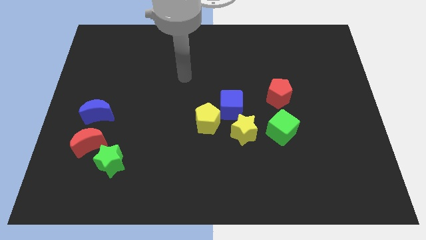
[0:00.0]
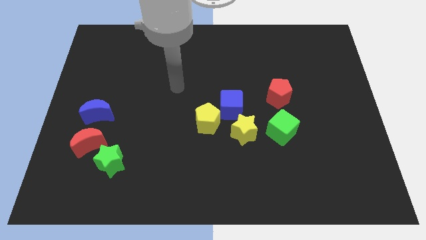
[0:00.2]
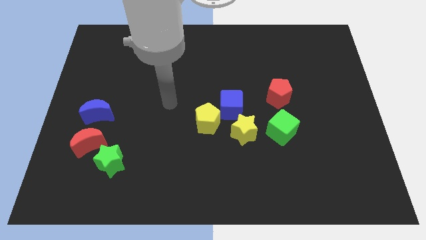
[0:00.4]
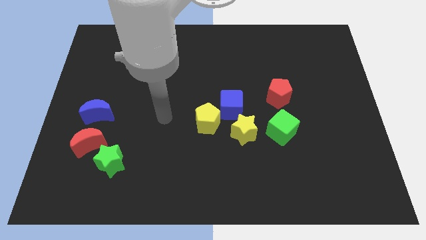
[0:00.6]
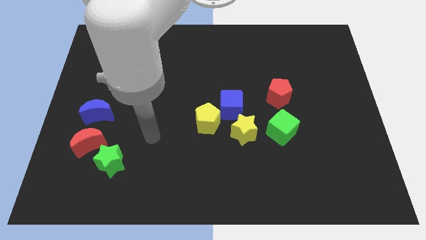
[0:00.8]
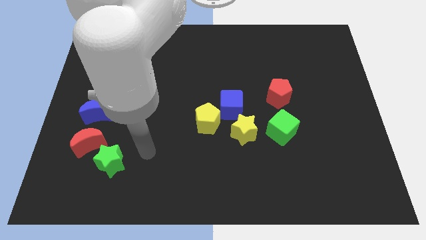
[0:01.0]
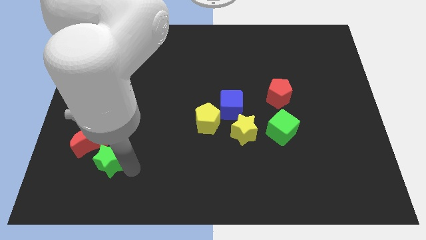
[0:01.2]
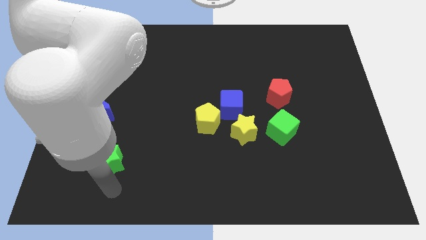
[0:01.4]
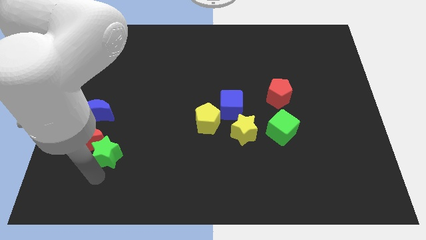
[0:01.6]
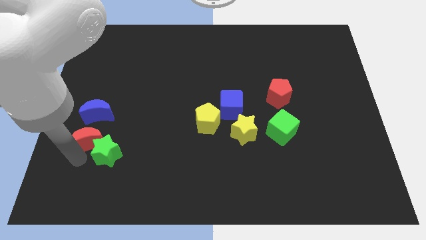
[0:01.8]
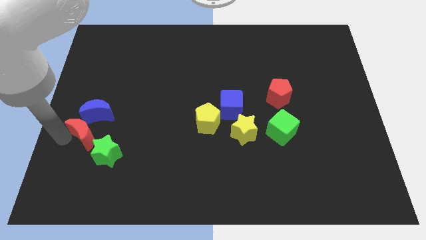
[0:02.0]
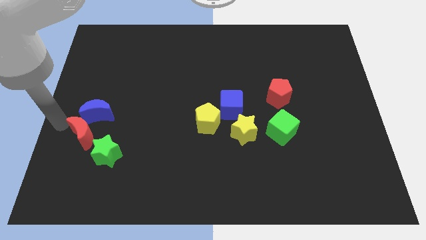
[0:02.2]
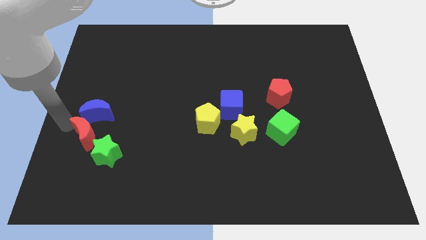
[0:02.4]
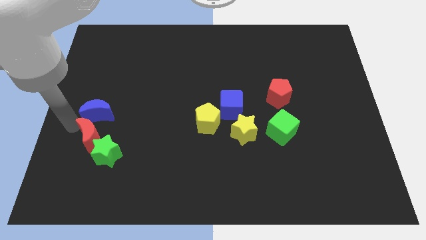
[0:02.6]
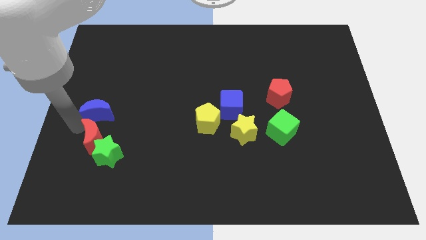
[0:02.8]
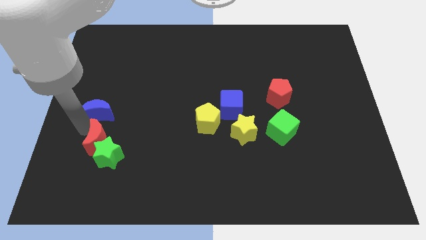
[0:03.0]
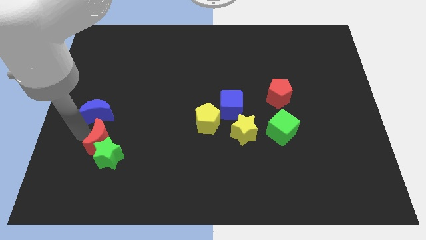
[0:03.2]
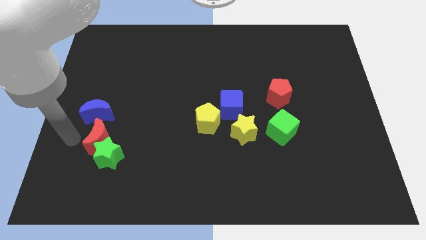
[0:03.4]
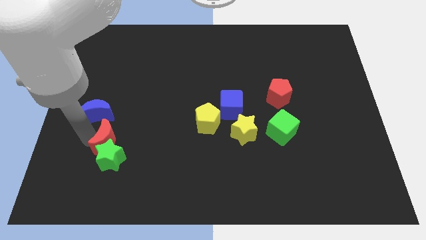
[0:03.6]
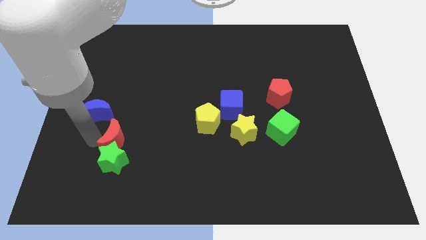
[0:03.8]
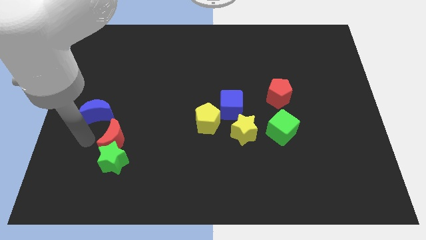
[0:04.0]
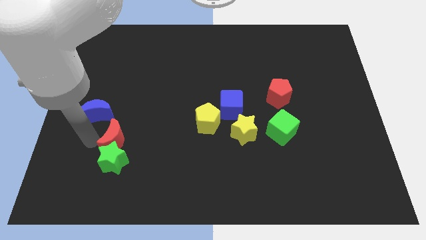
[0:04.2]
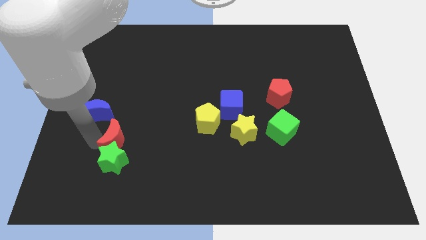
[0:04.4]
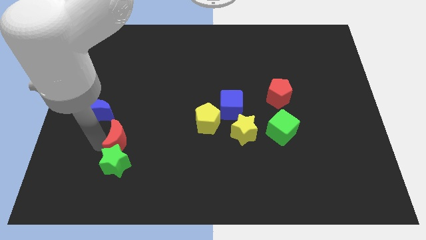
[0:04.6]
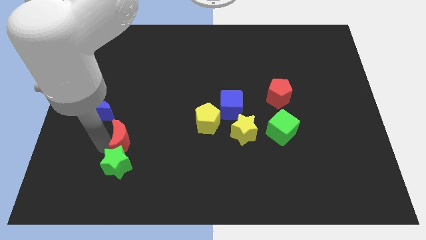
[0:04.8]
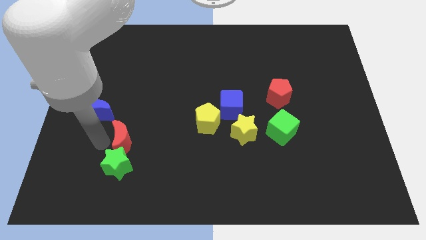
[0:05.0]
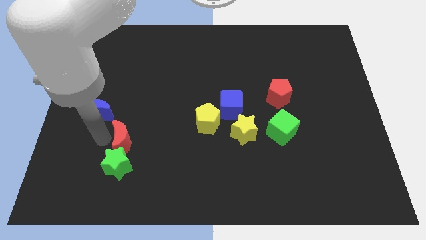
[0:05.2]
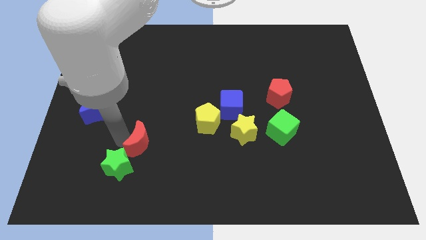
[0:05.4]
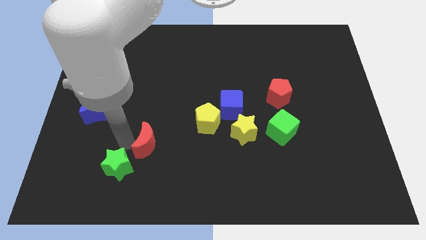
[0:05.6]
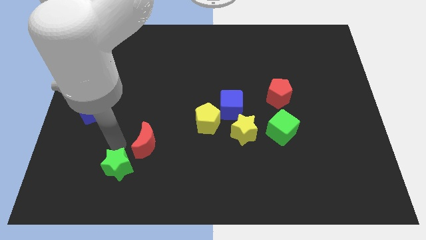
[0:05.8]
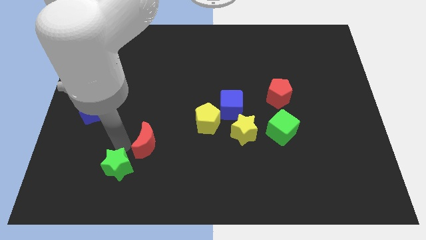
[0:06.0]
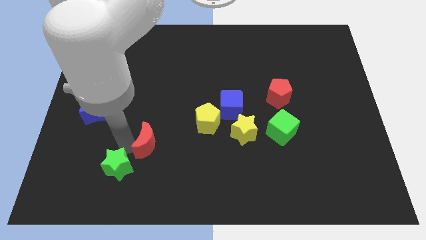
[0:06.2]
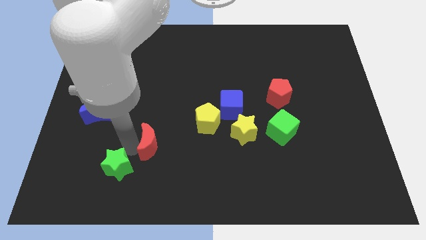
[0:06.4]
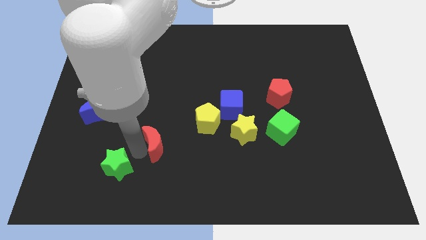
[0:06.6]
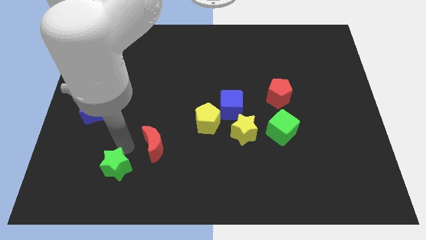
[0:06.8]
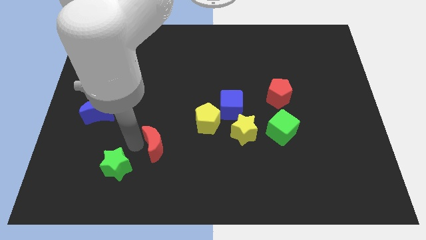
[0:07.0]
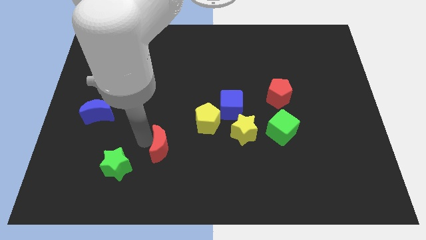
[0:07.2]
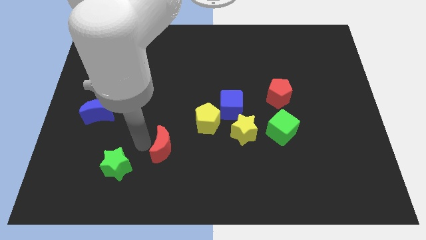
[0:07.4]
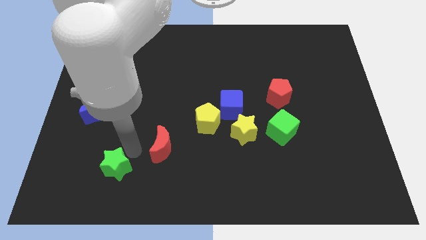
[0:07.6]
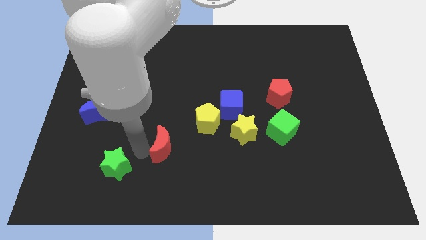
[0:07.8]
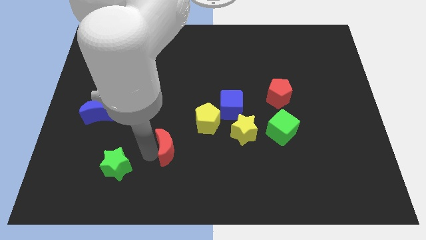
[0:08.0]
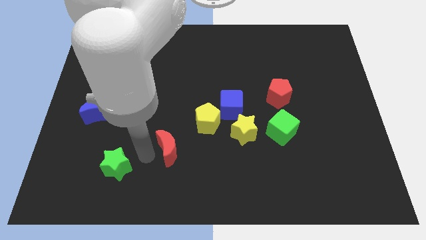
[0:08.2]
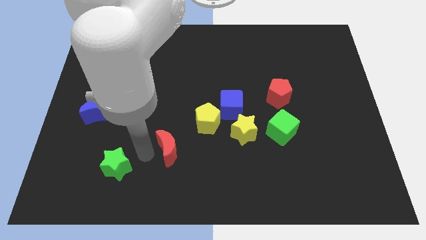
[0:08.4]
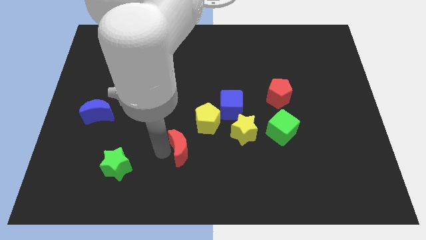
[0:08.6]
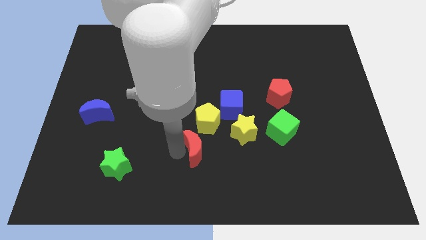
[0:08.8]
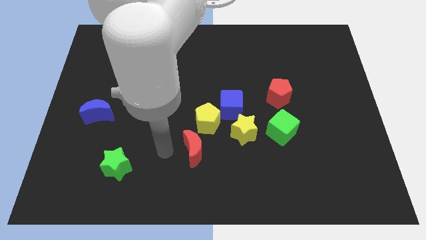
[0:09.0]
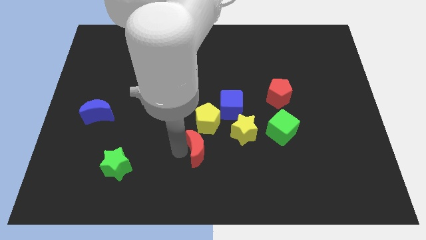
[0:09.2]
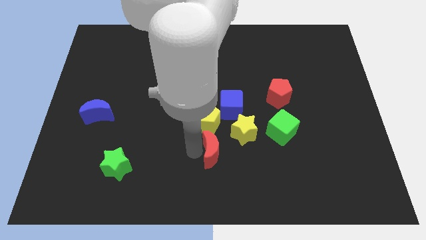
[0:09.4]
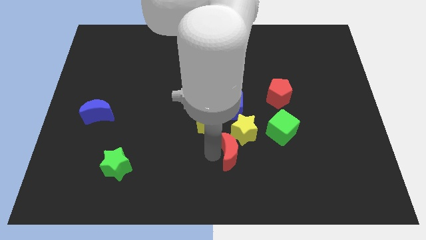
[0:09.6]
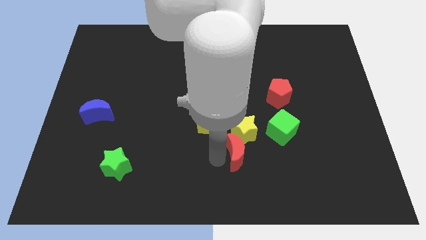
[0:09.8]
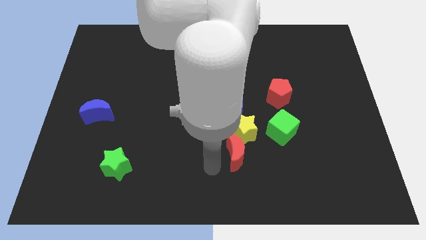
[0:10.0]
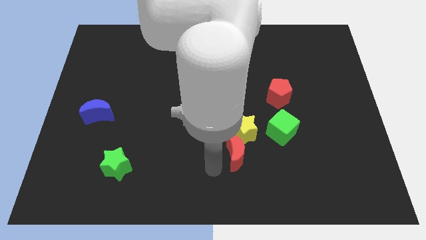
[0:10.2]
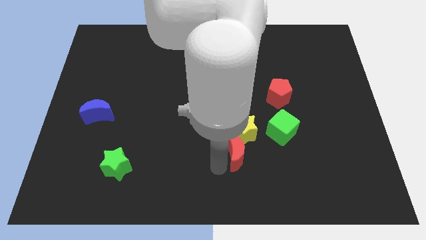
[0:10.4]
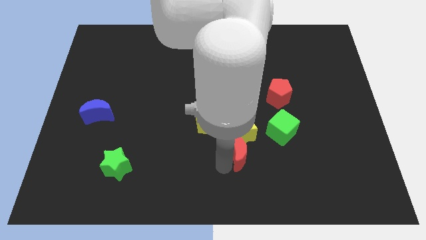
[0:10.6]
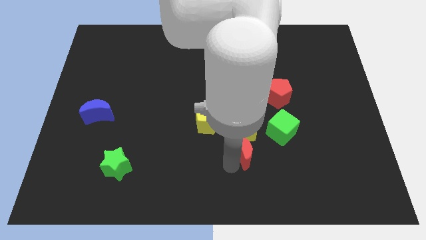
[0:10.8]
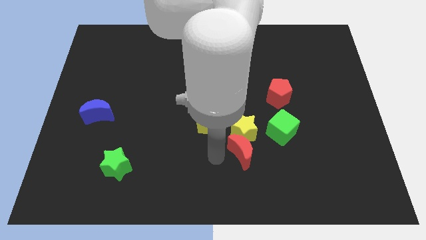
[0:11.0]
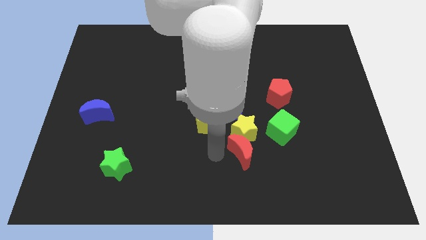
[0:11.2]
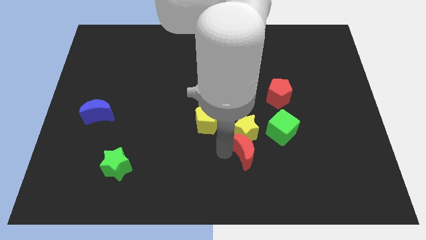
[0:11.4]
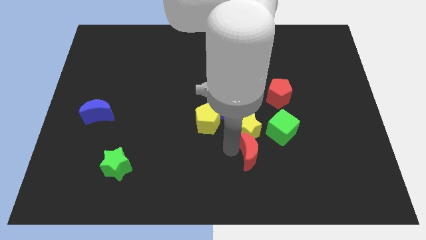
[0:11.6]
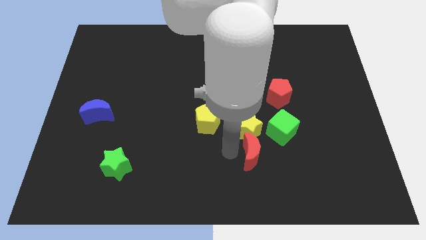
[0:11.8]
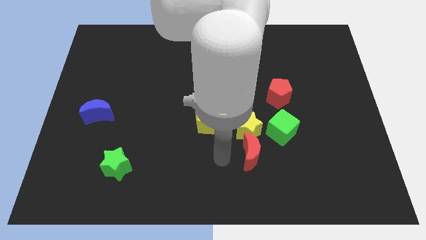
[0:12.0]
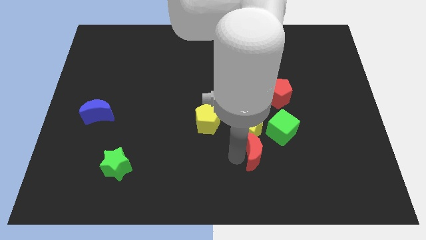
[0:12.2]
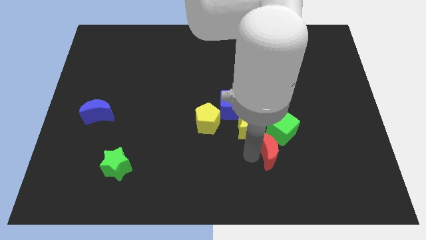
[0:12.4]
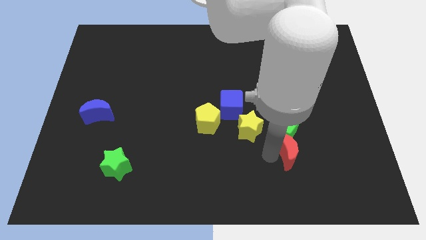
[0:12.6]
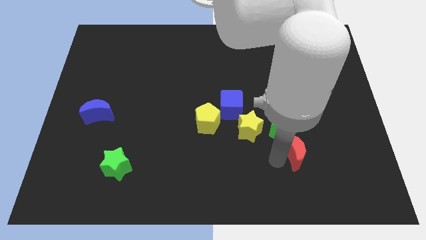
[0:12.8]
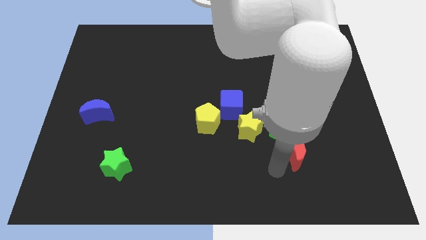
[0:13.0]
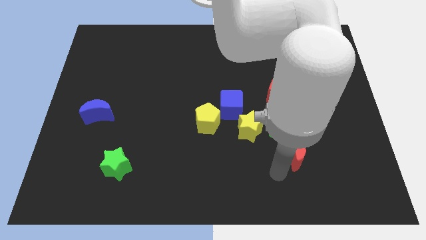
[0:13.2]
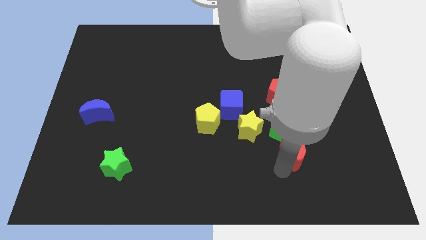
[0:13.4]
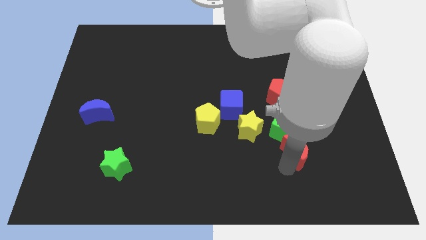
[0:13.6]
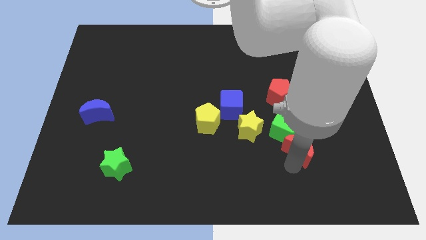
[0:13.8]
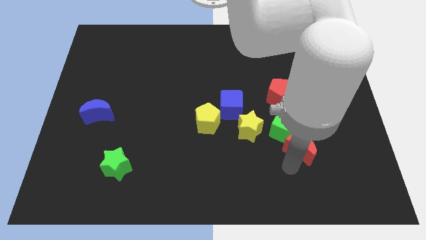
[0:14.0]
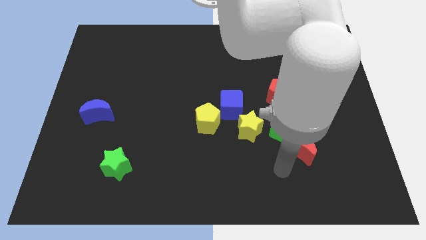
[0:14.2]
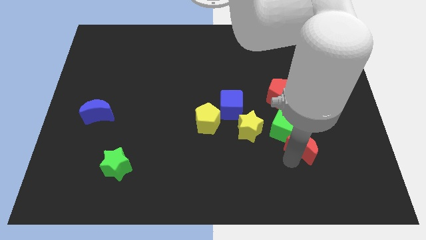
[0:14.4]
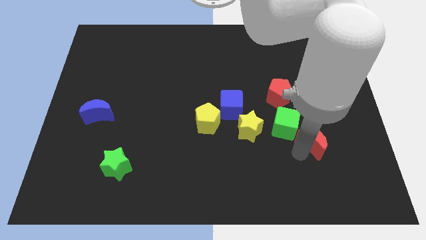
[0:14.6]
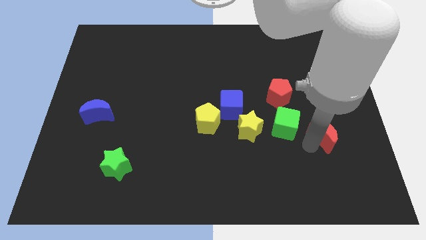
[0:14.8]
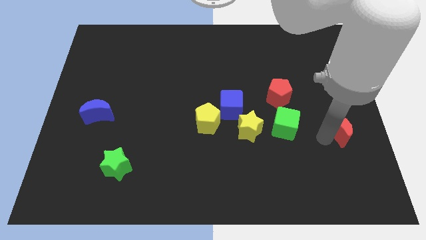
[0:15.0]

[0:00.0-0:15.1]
push the red moon to the center right
